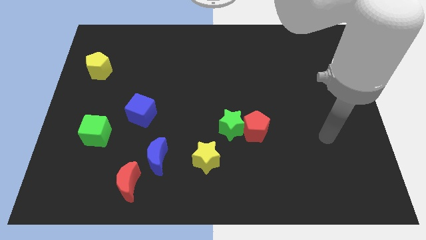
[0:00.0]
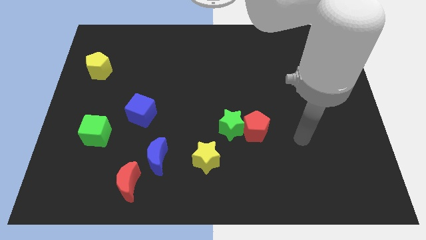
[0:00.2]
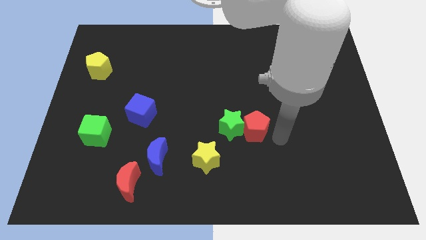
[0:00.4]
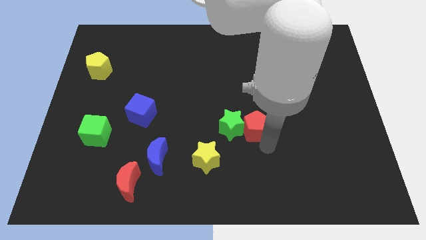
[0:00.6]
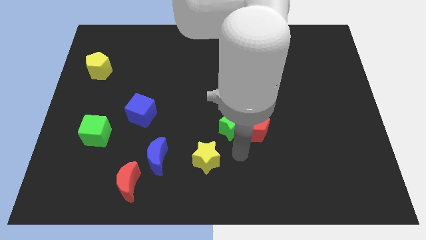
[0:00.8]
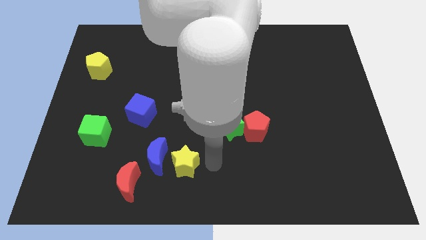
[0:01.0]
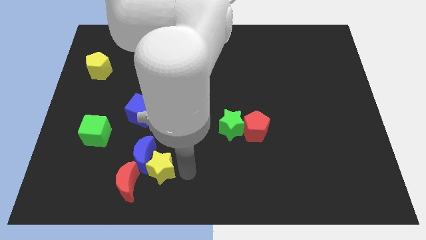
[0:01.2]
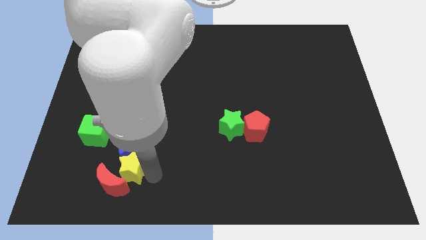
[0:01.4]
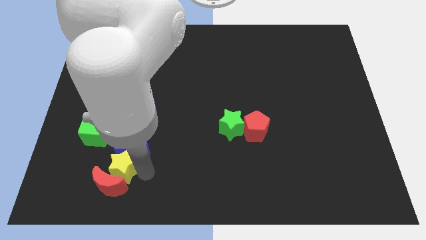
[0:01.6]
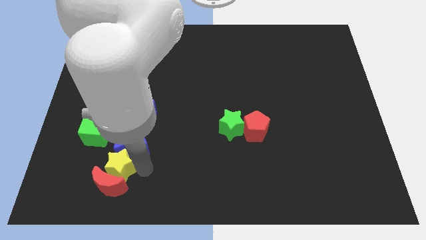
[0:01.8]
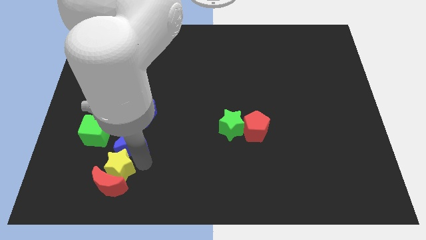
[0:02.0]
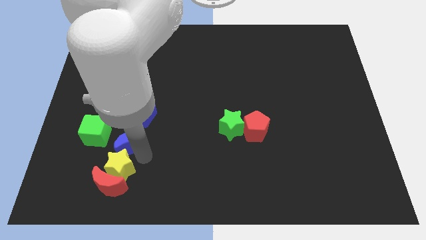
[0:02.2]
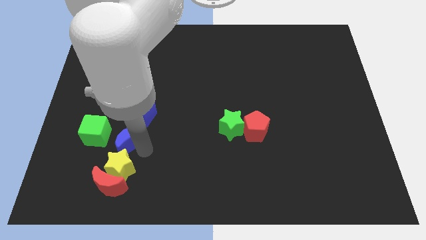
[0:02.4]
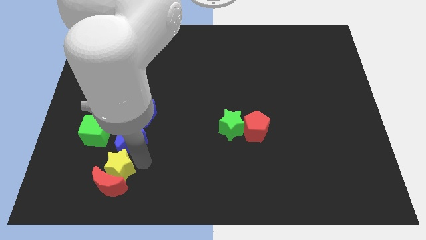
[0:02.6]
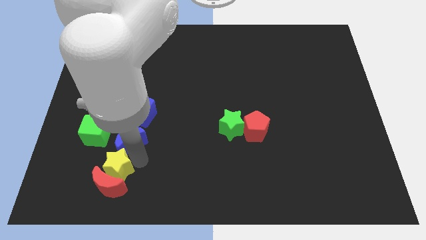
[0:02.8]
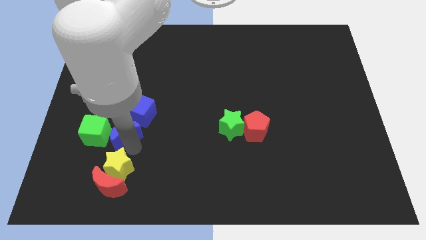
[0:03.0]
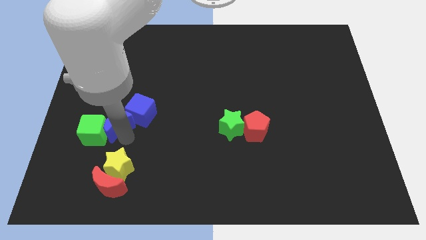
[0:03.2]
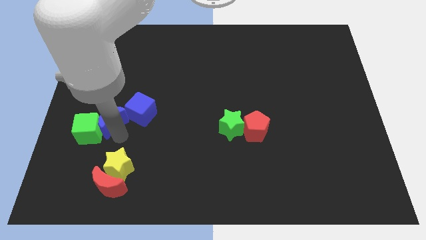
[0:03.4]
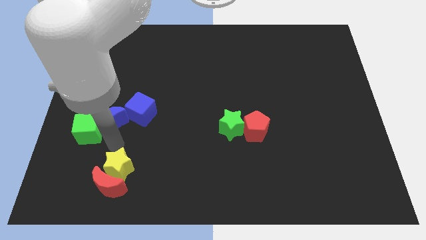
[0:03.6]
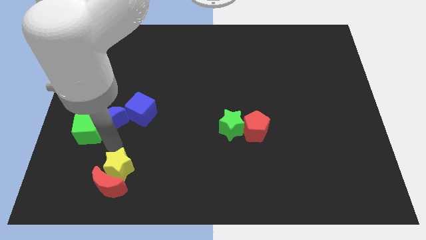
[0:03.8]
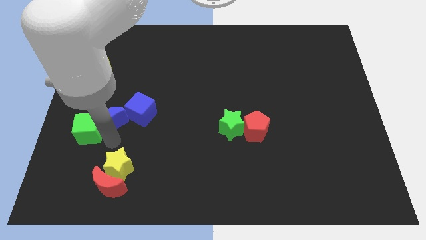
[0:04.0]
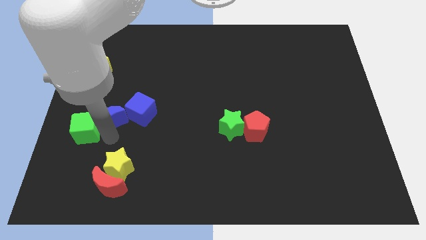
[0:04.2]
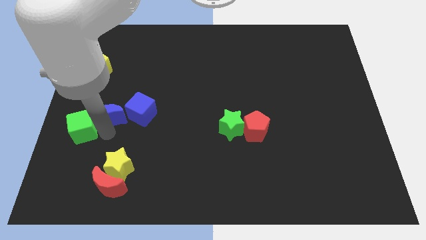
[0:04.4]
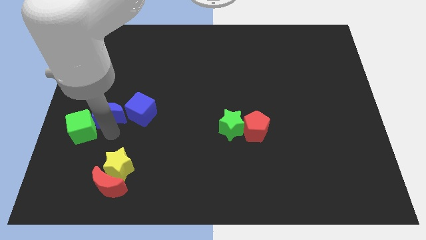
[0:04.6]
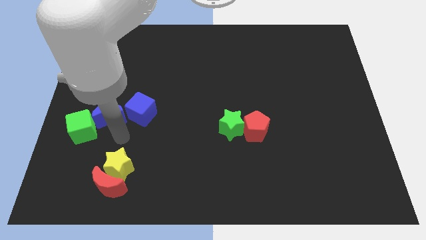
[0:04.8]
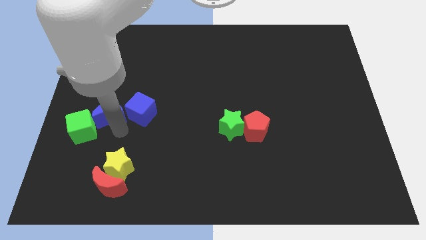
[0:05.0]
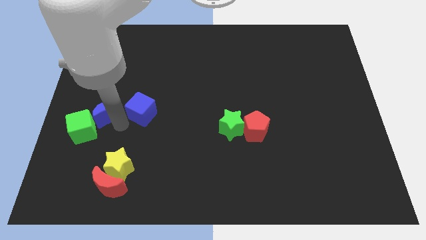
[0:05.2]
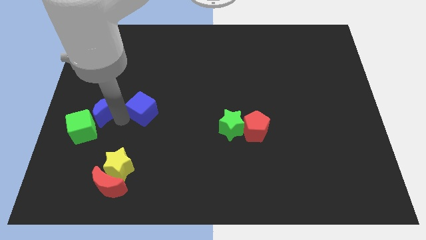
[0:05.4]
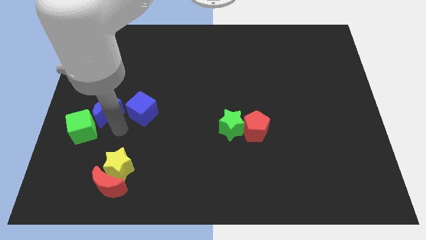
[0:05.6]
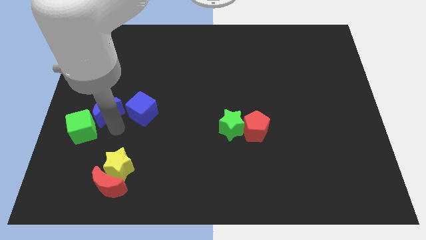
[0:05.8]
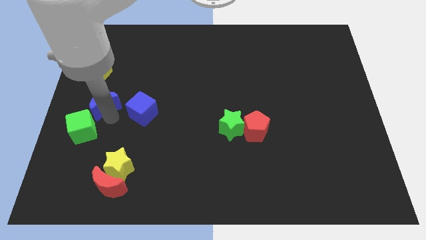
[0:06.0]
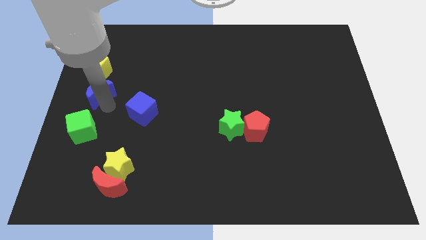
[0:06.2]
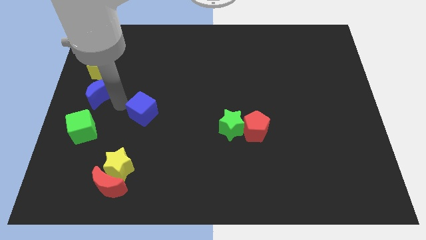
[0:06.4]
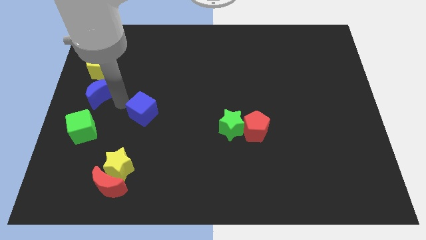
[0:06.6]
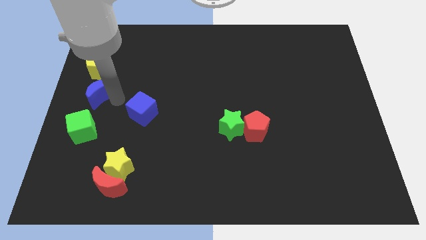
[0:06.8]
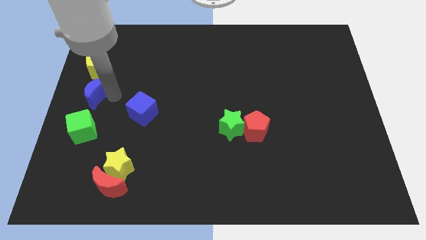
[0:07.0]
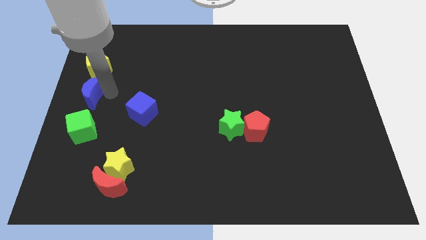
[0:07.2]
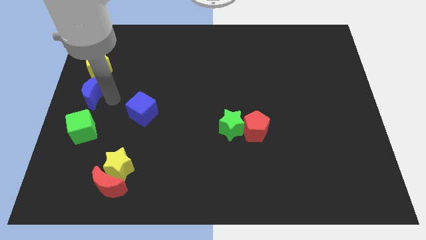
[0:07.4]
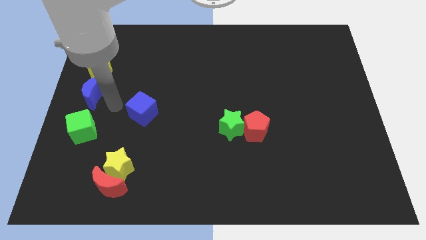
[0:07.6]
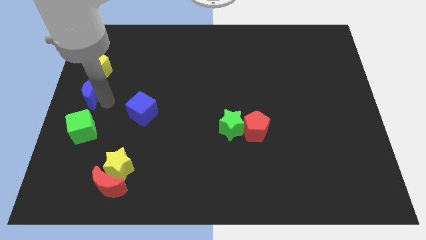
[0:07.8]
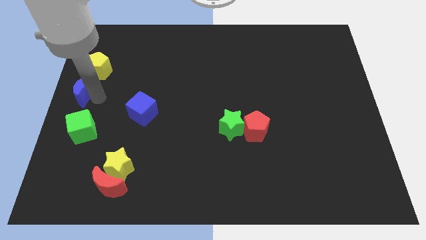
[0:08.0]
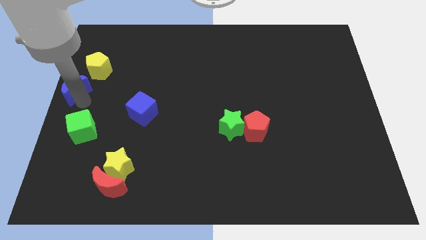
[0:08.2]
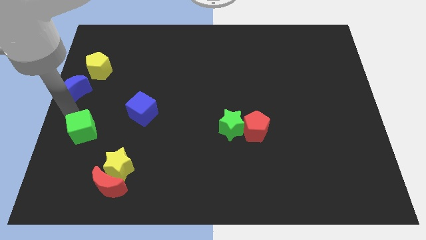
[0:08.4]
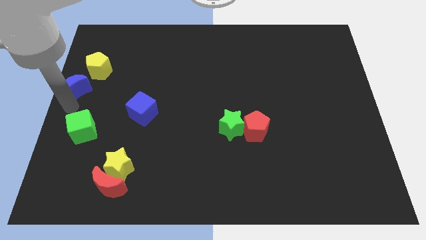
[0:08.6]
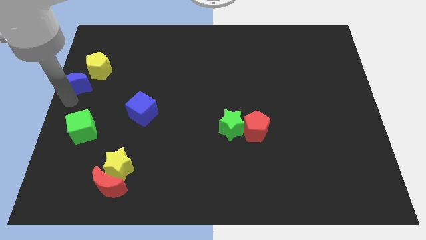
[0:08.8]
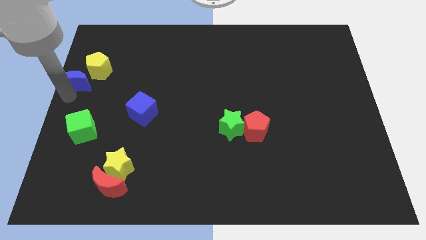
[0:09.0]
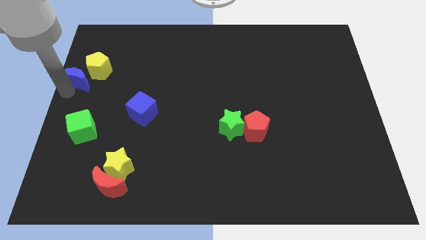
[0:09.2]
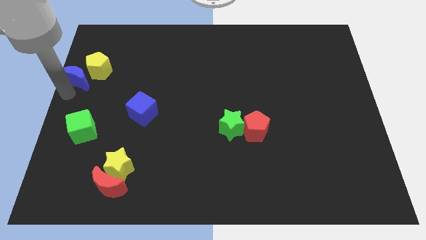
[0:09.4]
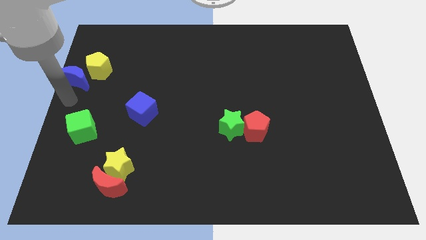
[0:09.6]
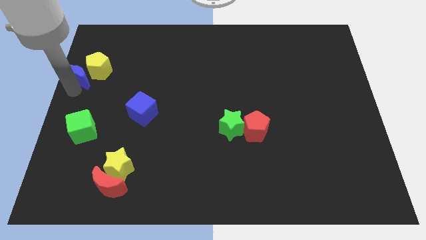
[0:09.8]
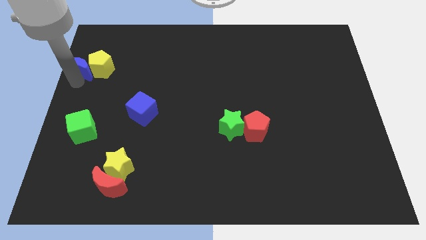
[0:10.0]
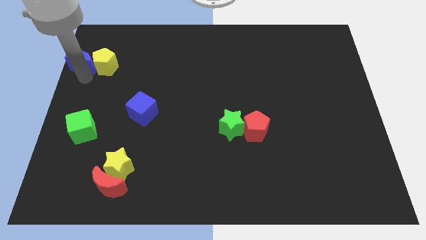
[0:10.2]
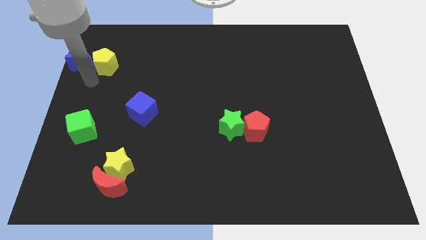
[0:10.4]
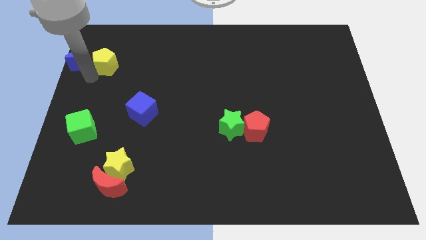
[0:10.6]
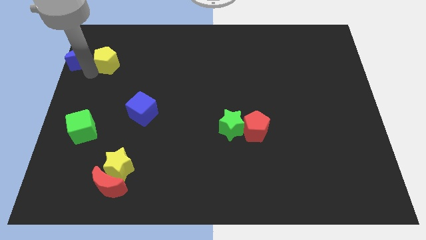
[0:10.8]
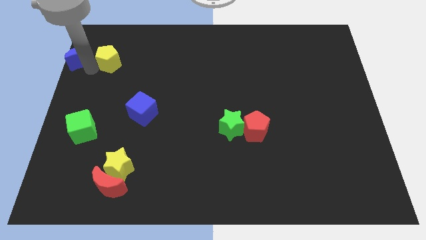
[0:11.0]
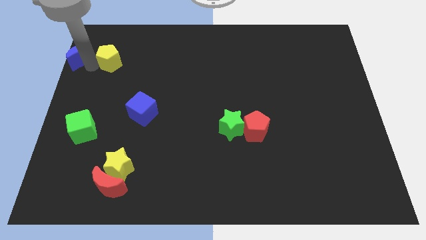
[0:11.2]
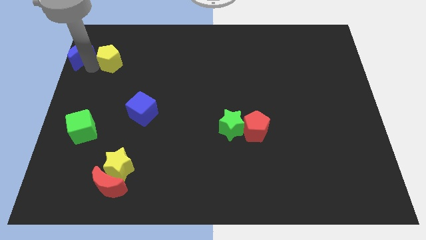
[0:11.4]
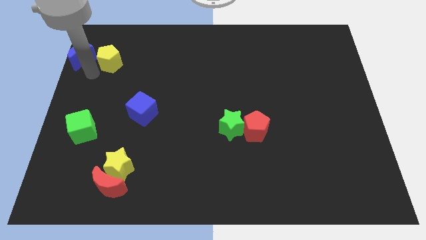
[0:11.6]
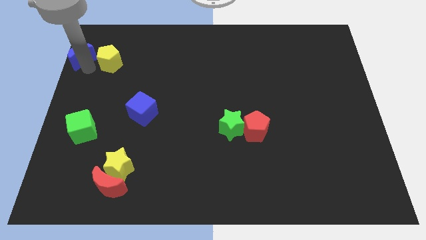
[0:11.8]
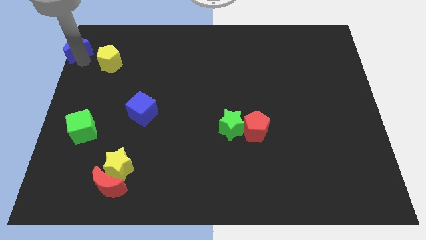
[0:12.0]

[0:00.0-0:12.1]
put the blue moon to the upper left corner

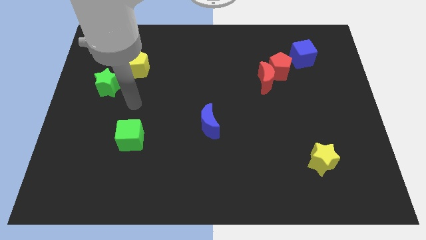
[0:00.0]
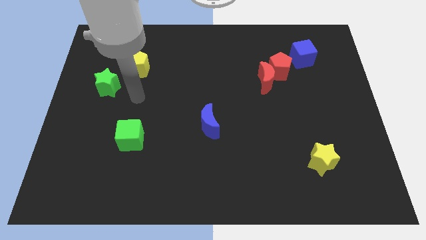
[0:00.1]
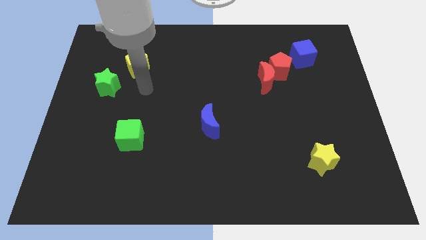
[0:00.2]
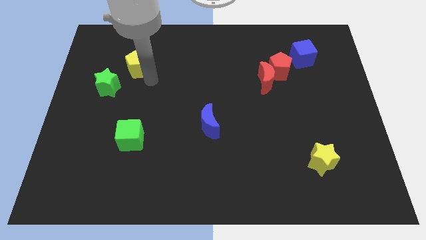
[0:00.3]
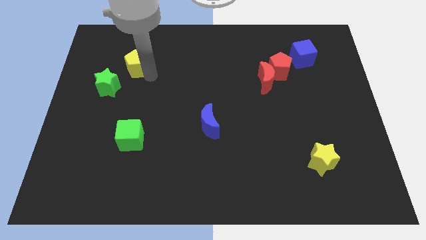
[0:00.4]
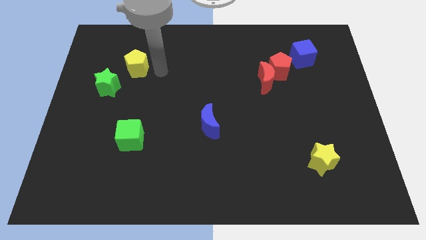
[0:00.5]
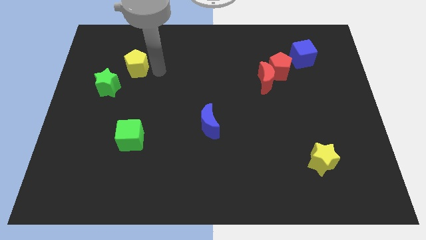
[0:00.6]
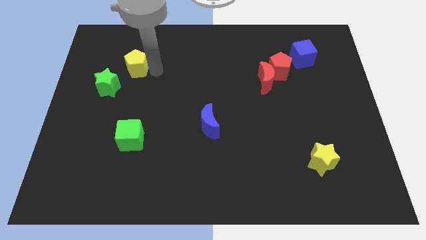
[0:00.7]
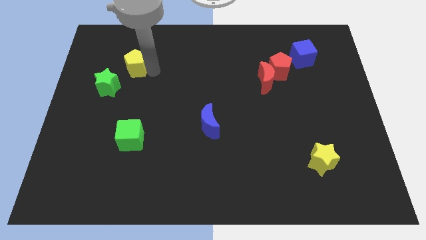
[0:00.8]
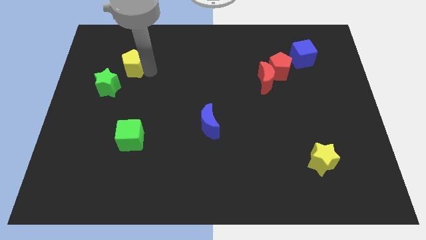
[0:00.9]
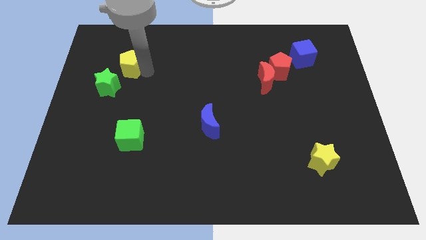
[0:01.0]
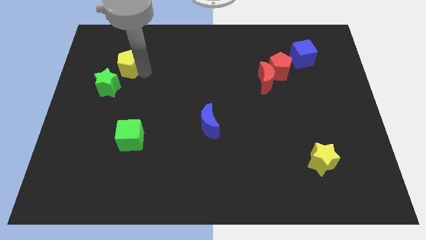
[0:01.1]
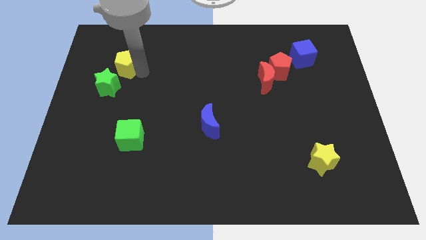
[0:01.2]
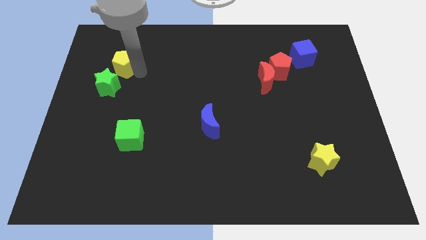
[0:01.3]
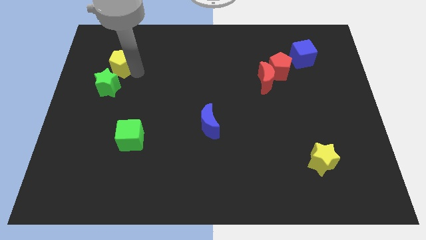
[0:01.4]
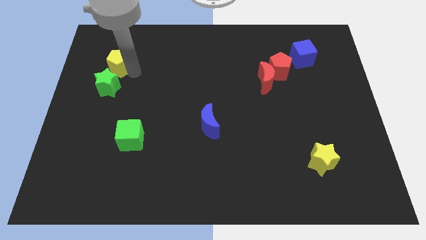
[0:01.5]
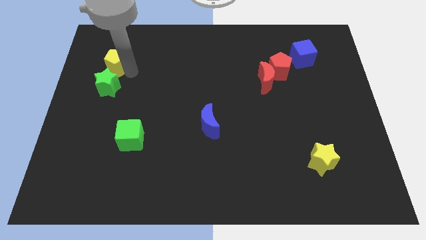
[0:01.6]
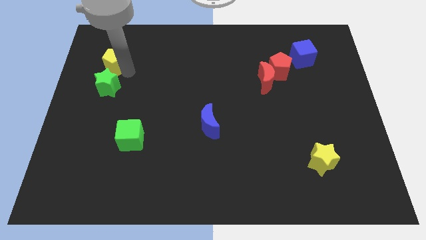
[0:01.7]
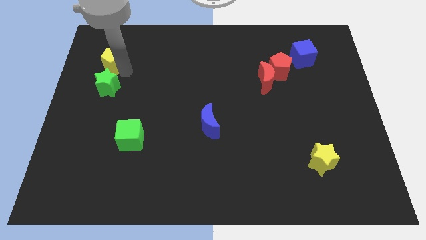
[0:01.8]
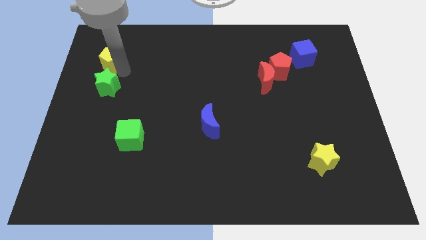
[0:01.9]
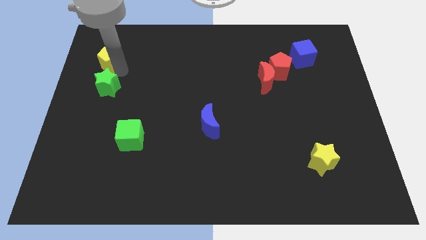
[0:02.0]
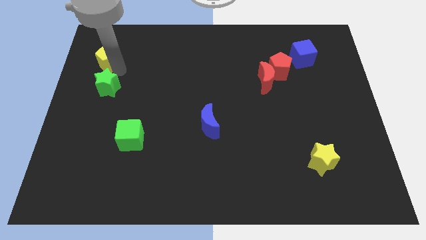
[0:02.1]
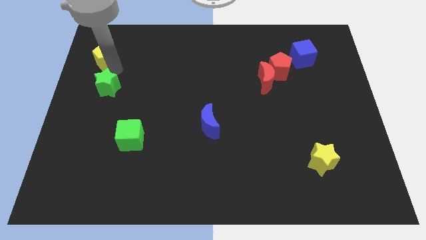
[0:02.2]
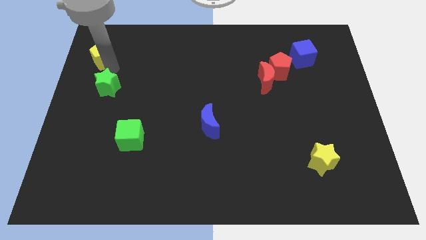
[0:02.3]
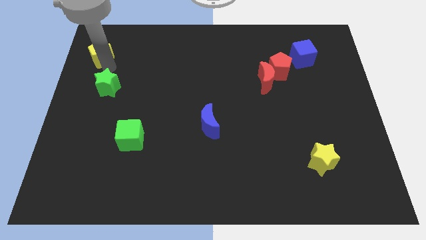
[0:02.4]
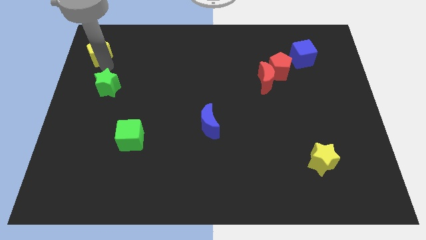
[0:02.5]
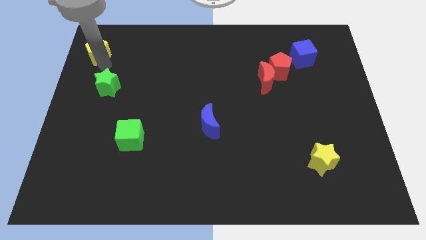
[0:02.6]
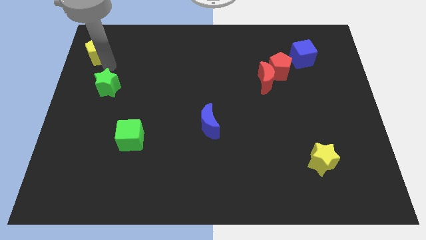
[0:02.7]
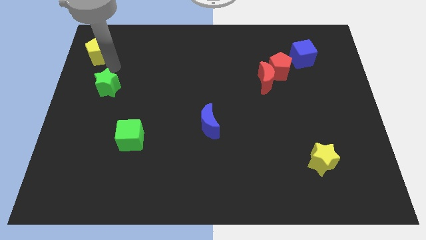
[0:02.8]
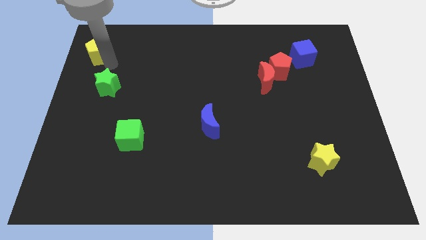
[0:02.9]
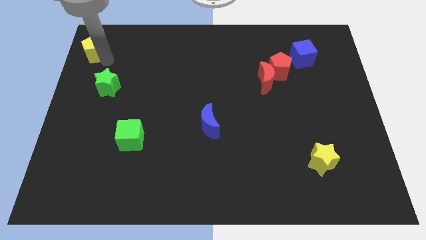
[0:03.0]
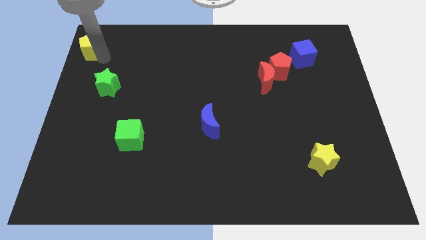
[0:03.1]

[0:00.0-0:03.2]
push the yellow pentagon to the top left corner
